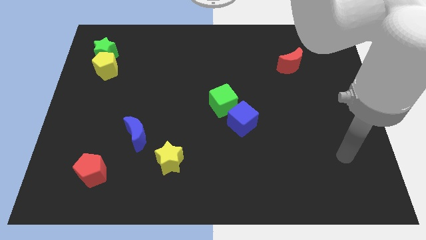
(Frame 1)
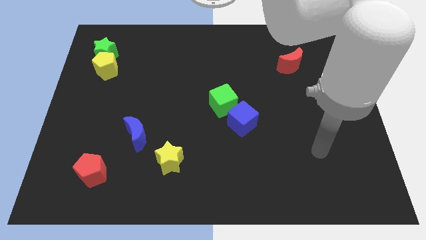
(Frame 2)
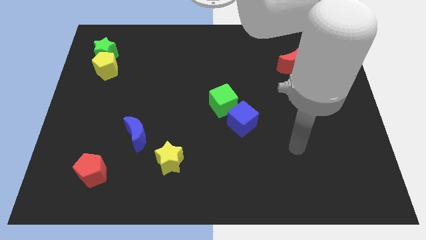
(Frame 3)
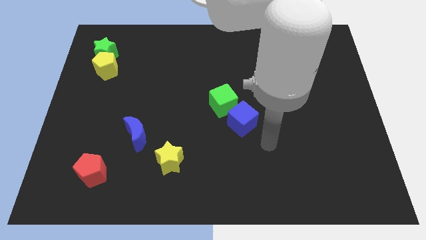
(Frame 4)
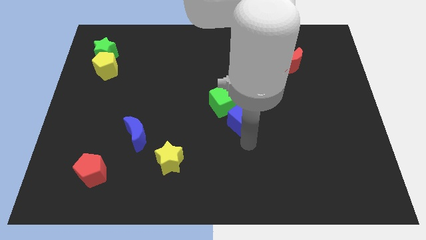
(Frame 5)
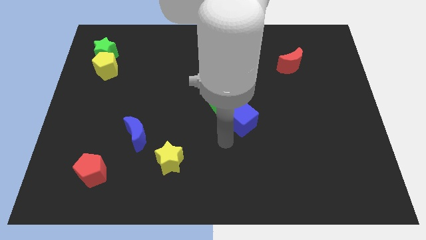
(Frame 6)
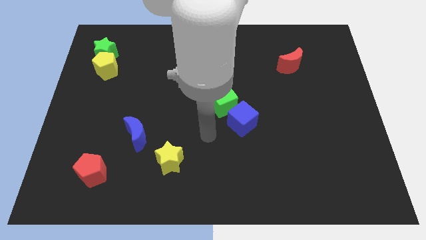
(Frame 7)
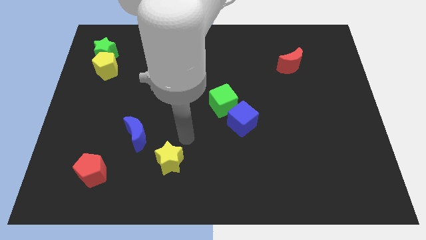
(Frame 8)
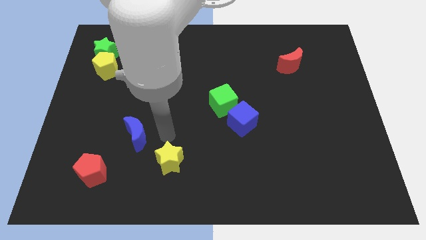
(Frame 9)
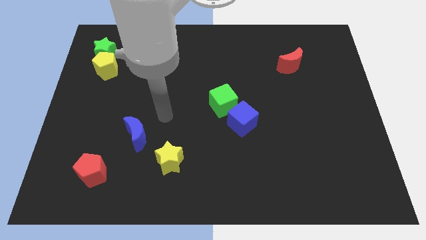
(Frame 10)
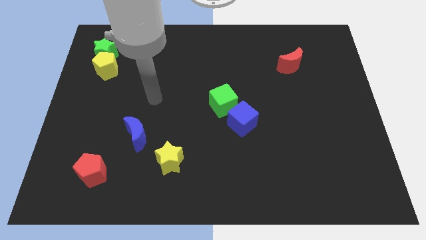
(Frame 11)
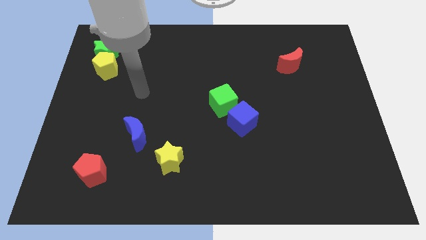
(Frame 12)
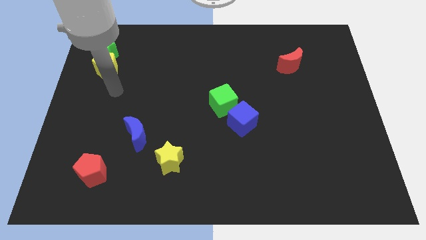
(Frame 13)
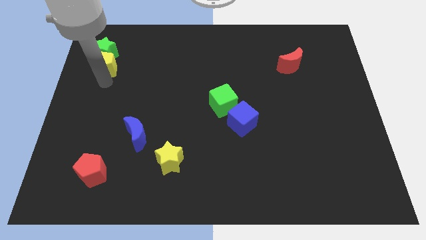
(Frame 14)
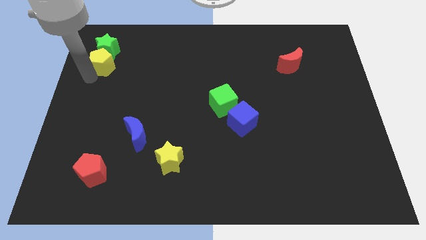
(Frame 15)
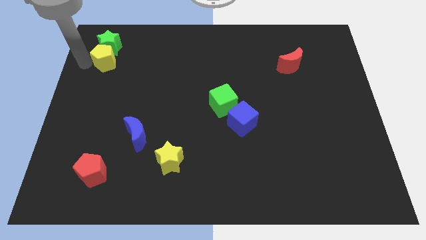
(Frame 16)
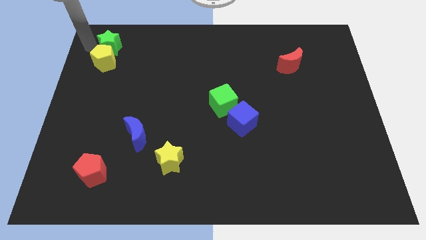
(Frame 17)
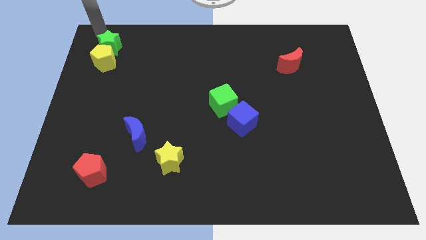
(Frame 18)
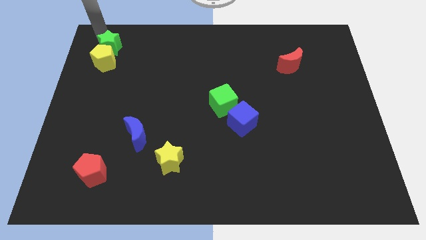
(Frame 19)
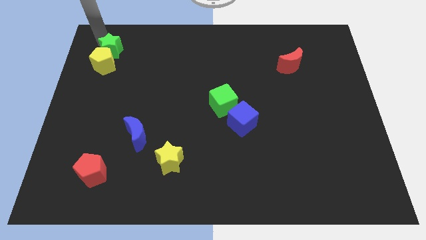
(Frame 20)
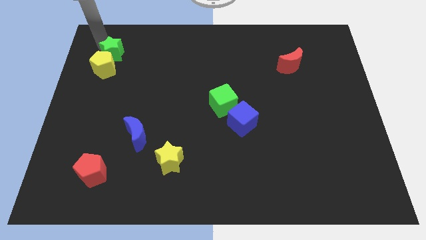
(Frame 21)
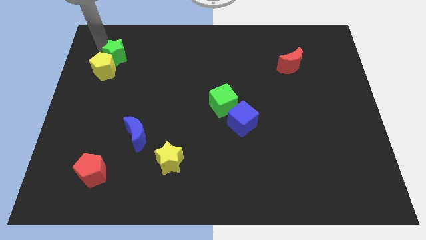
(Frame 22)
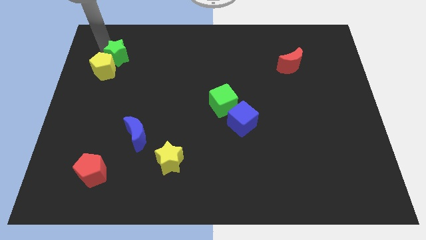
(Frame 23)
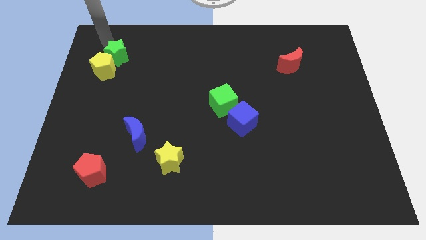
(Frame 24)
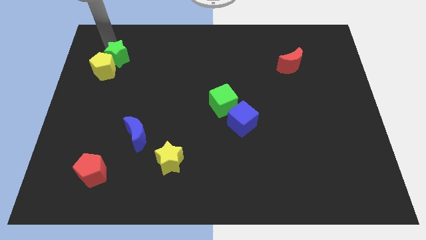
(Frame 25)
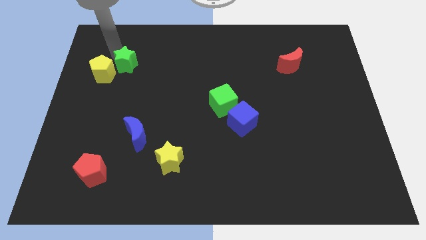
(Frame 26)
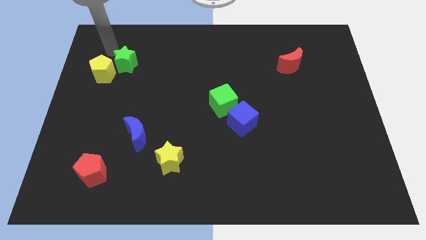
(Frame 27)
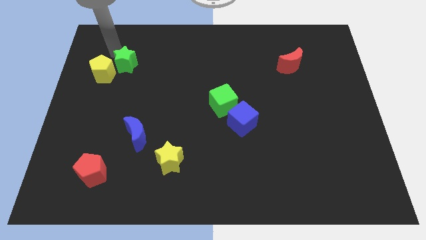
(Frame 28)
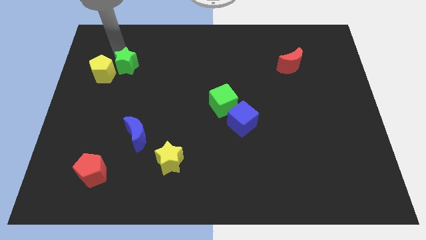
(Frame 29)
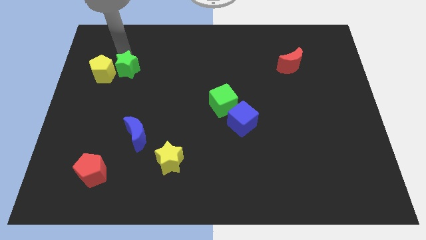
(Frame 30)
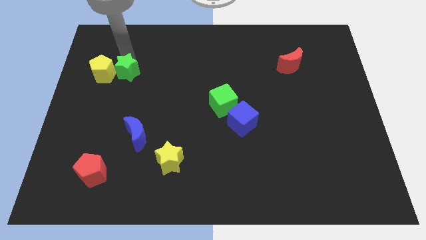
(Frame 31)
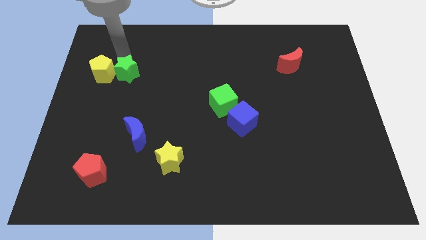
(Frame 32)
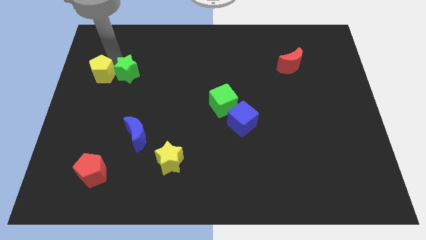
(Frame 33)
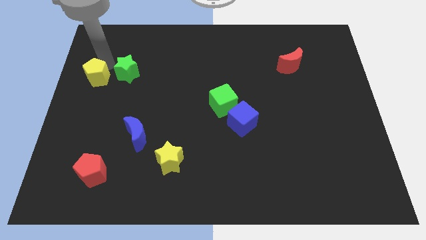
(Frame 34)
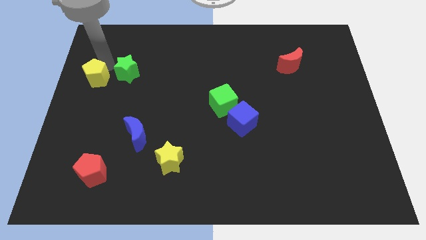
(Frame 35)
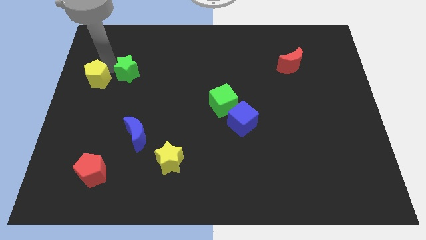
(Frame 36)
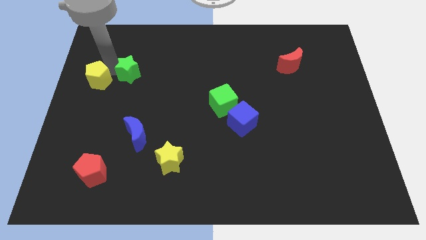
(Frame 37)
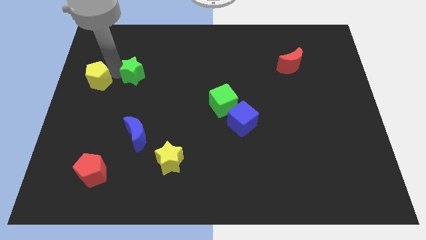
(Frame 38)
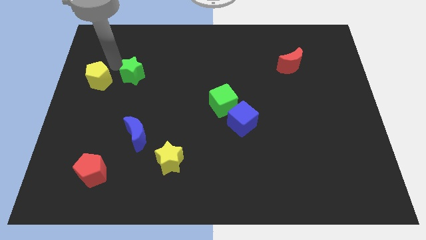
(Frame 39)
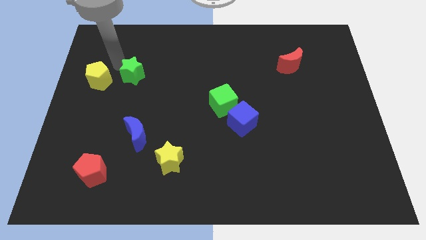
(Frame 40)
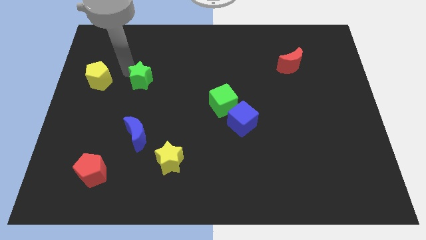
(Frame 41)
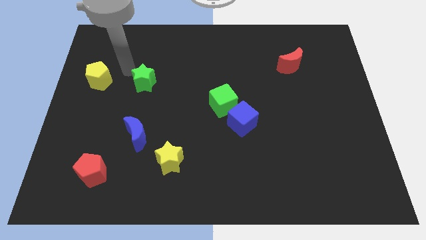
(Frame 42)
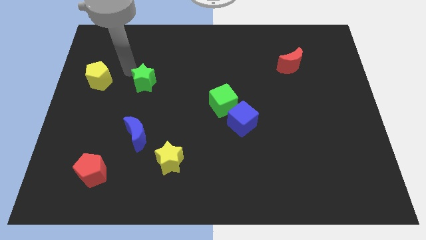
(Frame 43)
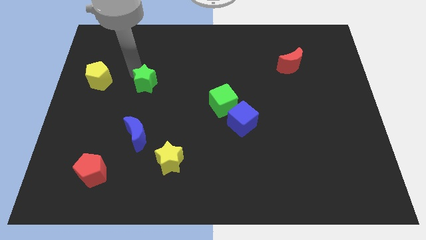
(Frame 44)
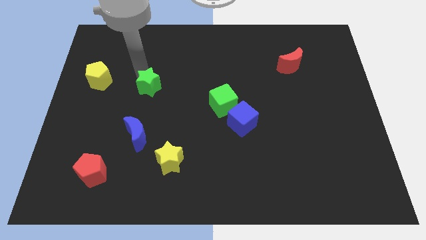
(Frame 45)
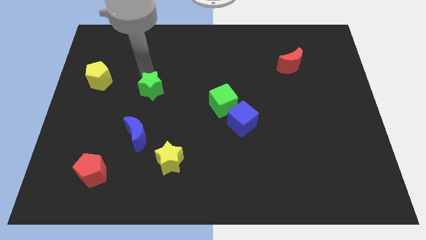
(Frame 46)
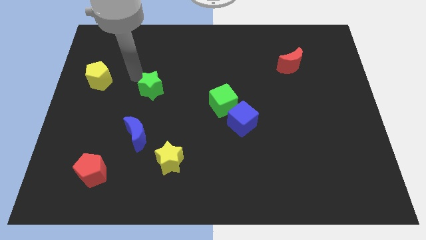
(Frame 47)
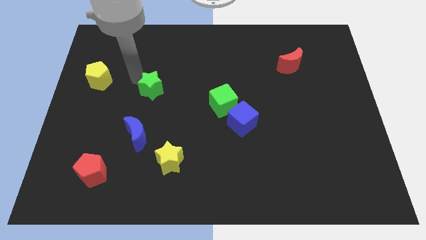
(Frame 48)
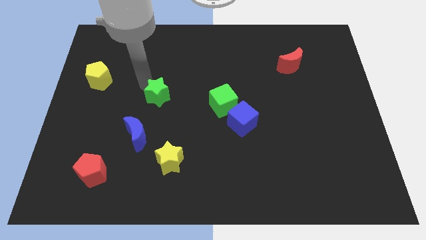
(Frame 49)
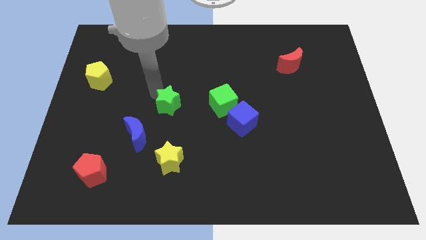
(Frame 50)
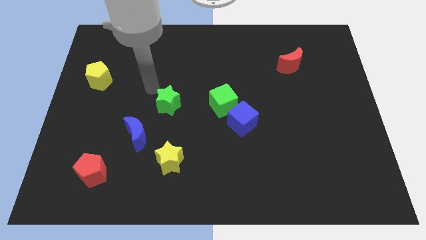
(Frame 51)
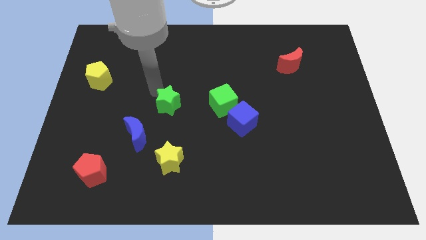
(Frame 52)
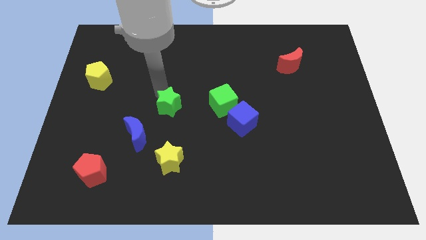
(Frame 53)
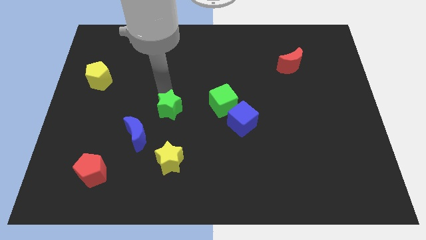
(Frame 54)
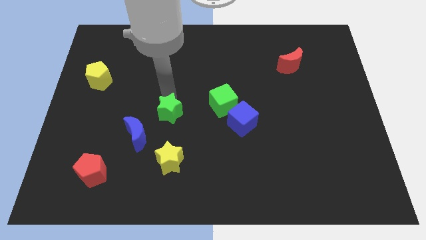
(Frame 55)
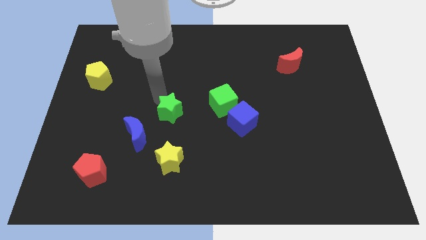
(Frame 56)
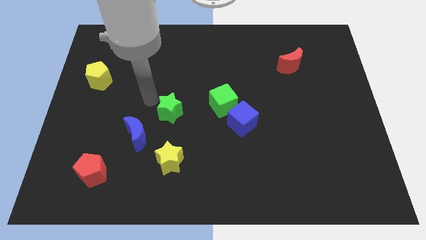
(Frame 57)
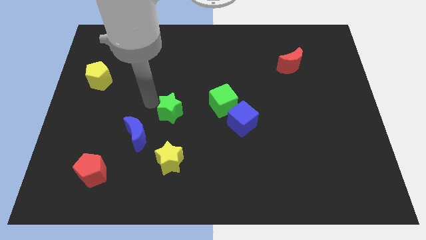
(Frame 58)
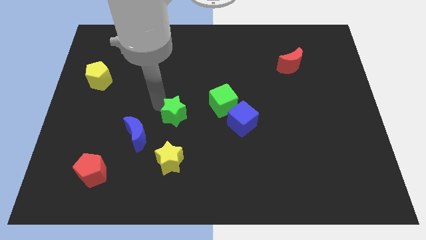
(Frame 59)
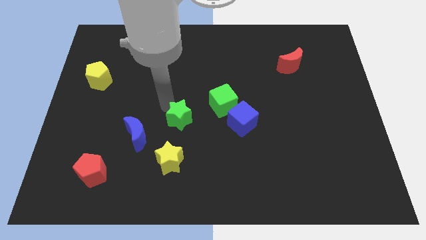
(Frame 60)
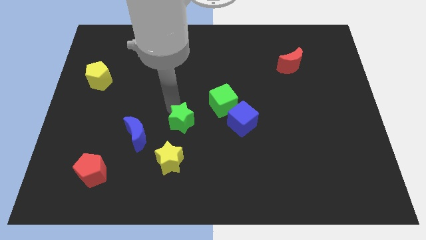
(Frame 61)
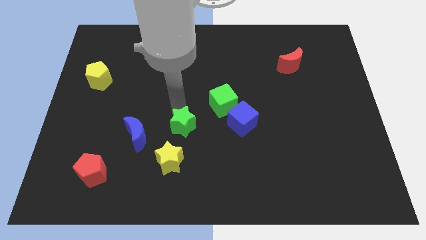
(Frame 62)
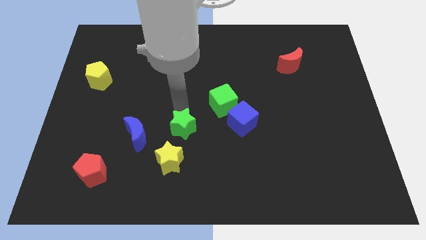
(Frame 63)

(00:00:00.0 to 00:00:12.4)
put the green star diagonally up and to the right of the yellow star

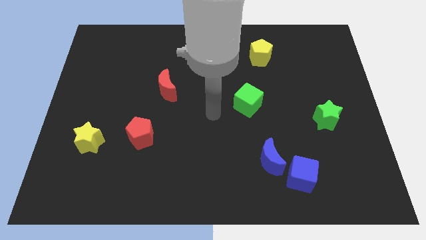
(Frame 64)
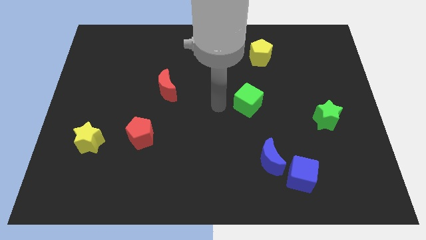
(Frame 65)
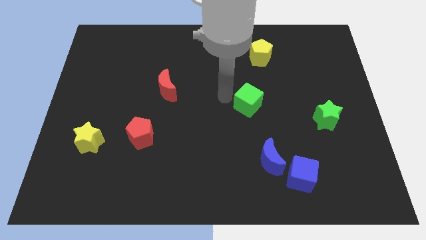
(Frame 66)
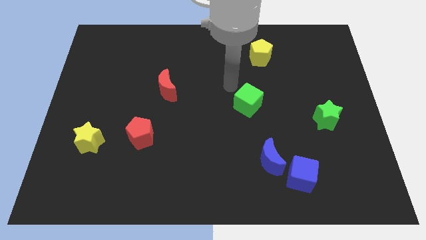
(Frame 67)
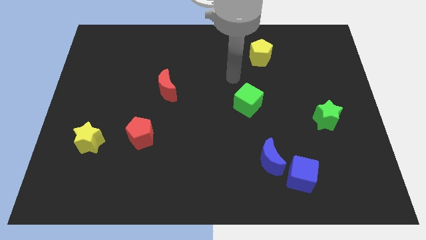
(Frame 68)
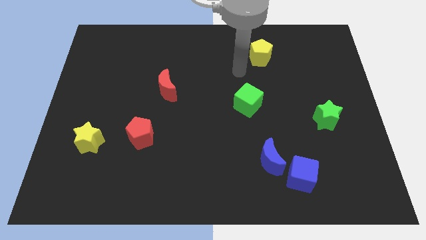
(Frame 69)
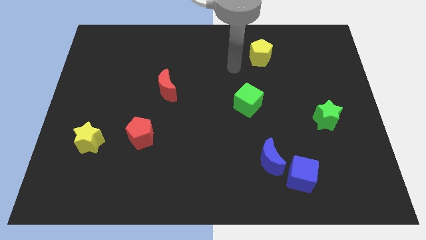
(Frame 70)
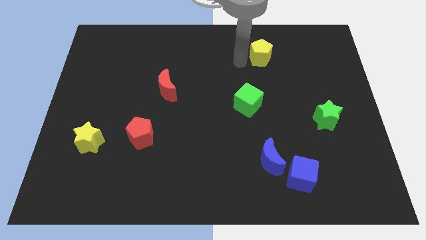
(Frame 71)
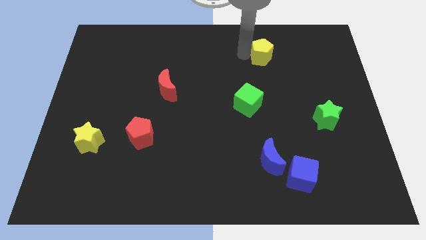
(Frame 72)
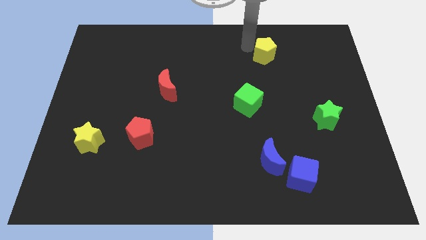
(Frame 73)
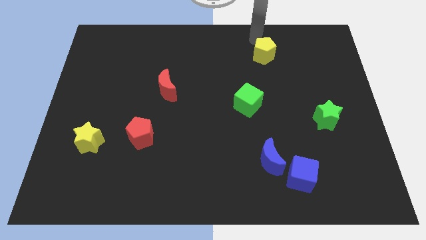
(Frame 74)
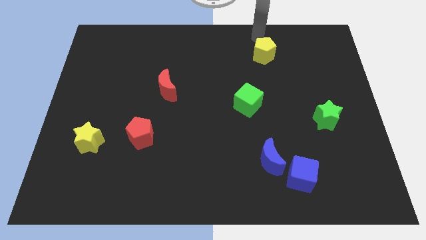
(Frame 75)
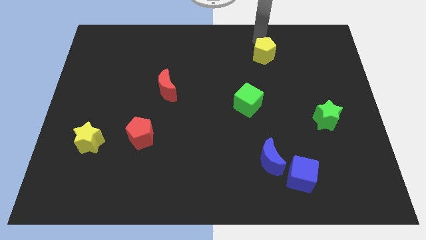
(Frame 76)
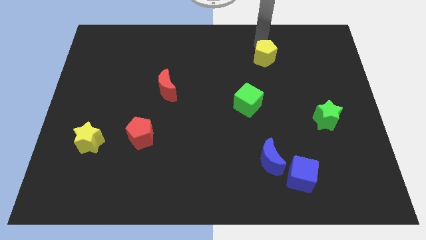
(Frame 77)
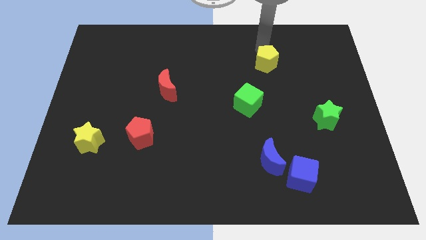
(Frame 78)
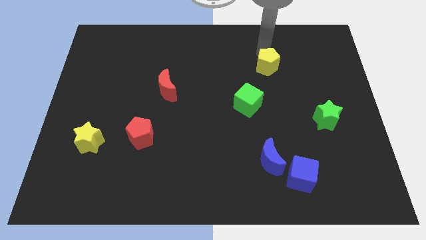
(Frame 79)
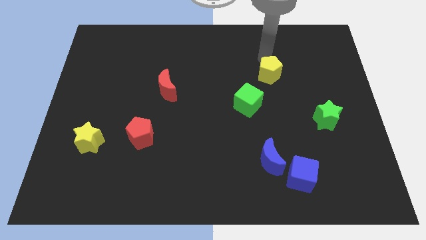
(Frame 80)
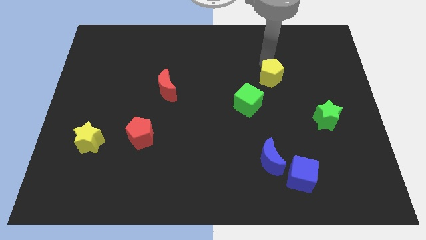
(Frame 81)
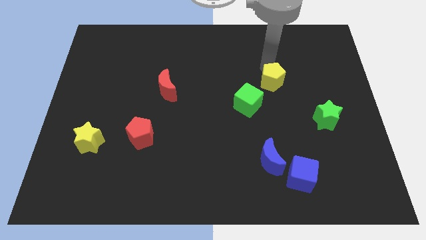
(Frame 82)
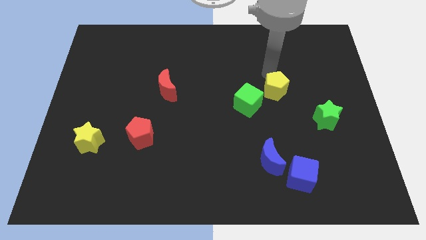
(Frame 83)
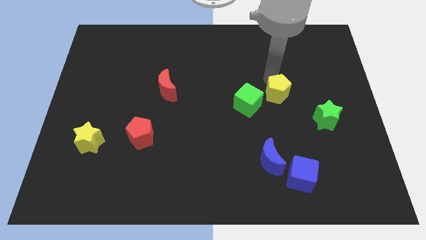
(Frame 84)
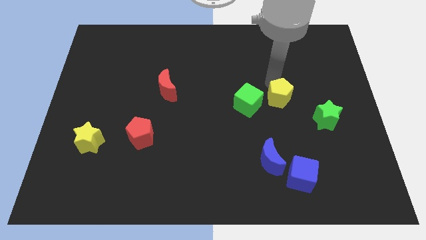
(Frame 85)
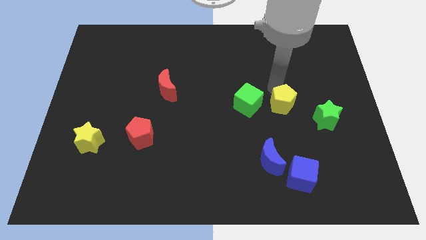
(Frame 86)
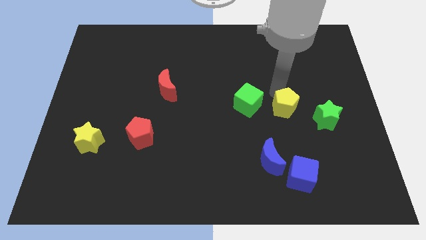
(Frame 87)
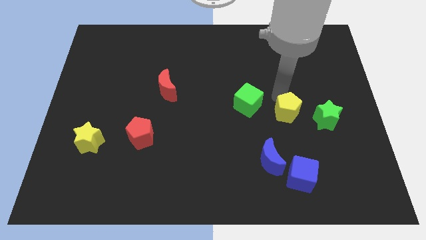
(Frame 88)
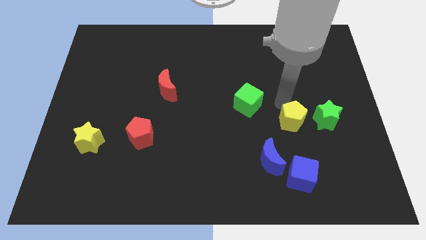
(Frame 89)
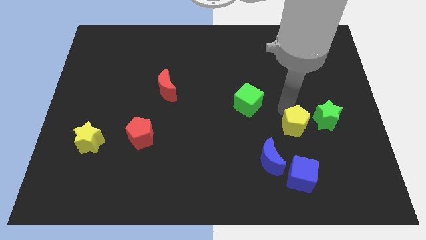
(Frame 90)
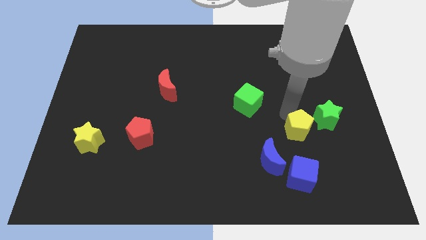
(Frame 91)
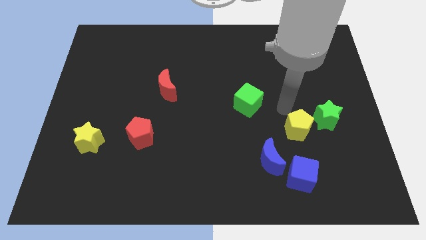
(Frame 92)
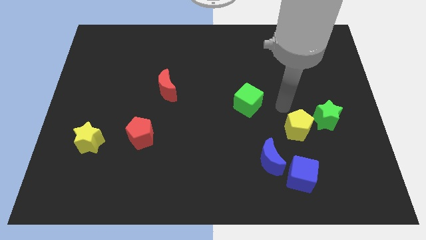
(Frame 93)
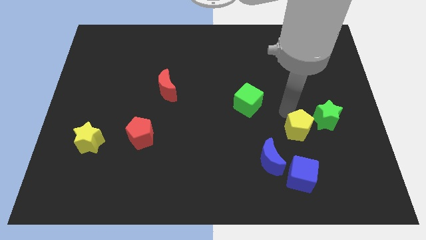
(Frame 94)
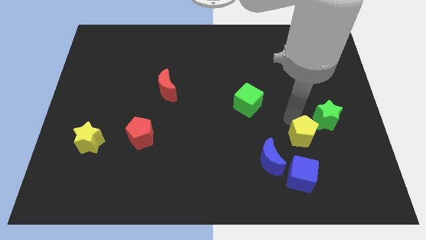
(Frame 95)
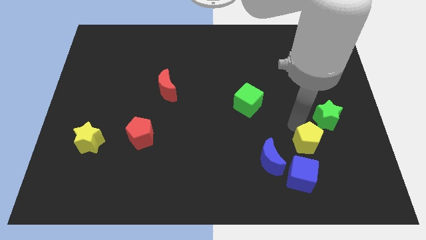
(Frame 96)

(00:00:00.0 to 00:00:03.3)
push the yellow pentagon right of the blue moon
